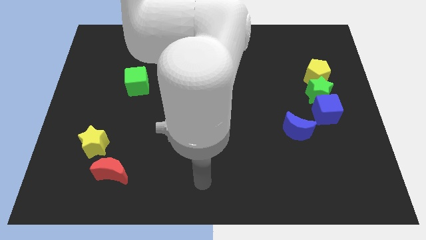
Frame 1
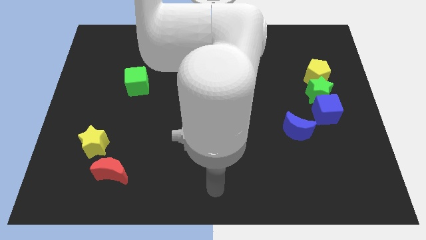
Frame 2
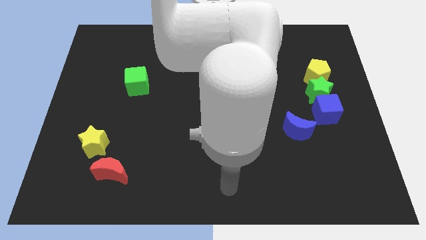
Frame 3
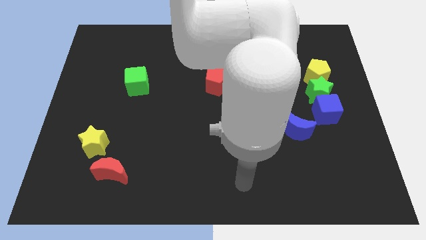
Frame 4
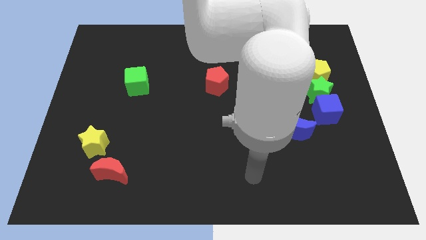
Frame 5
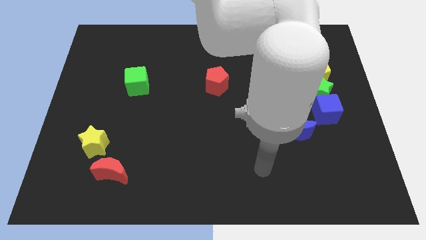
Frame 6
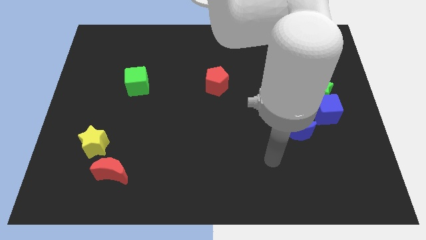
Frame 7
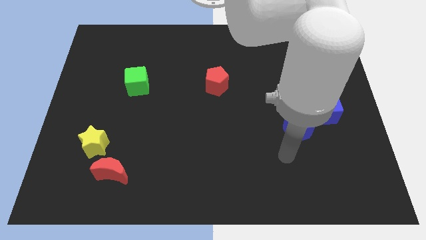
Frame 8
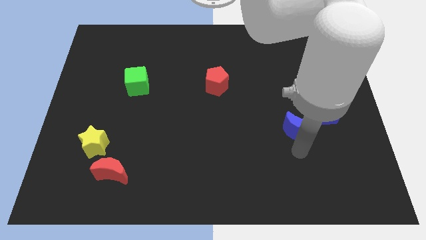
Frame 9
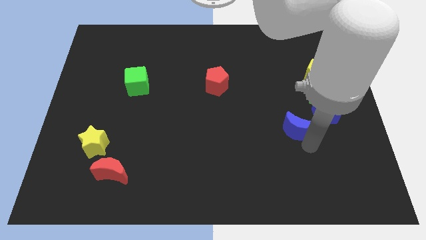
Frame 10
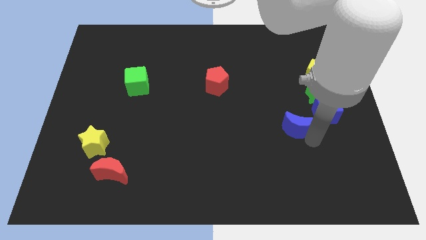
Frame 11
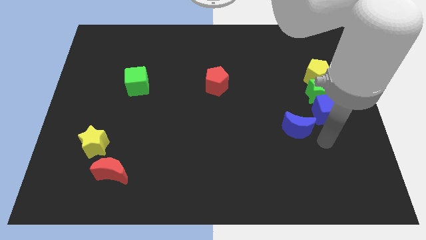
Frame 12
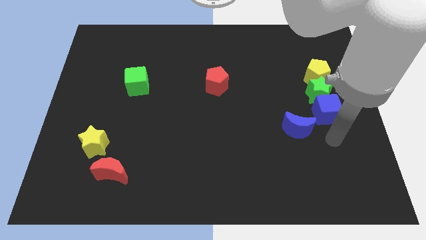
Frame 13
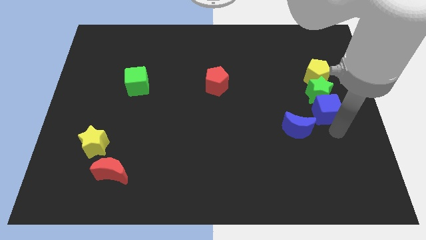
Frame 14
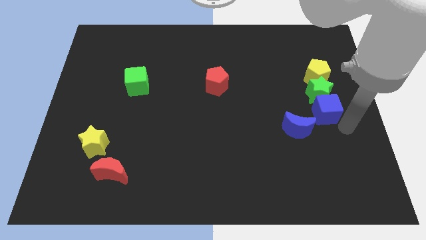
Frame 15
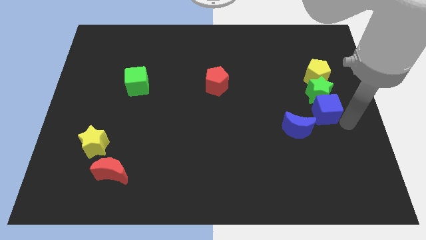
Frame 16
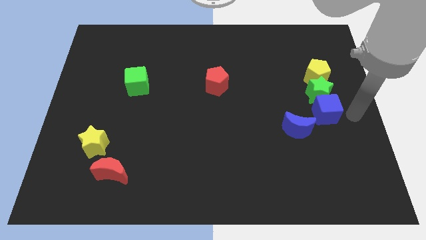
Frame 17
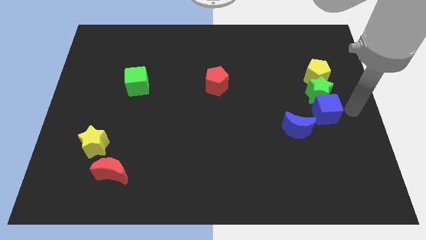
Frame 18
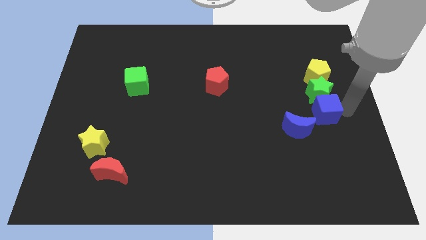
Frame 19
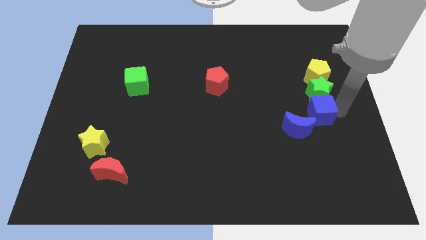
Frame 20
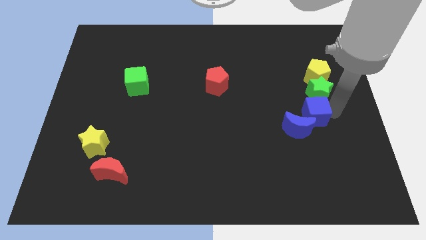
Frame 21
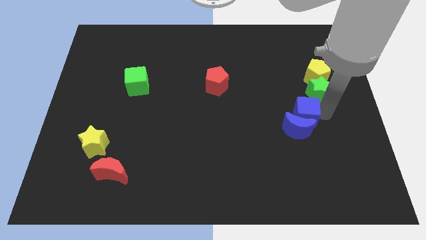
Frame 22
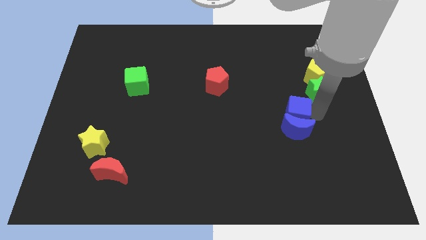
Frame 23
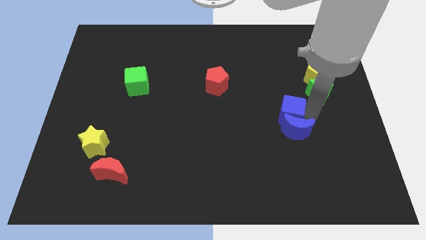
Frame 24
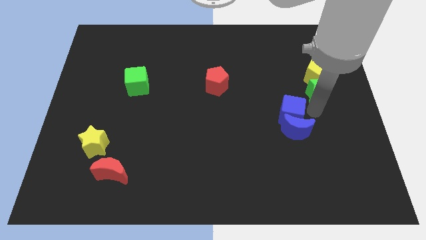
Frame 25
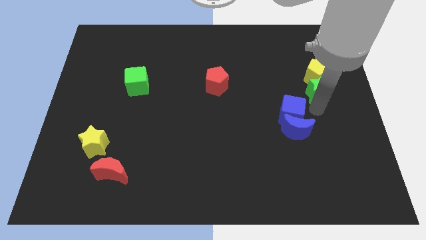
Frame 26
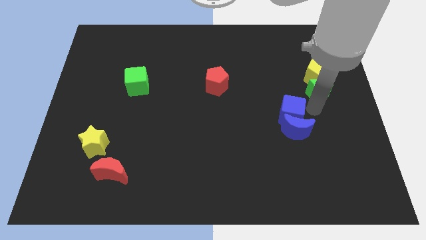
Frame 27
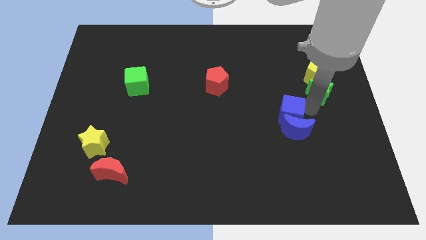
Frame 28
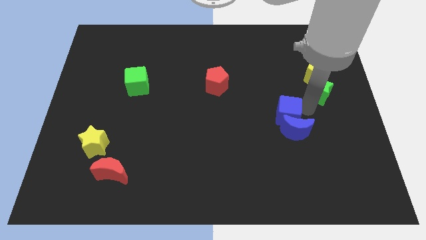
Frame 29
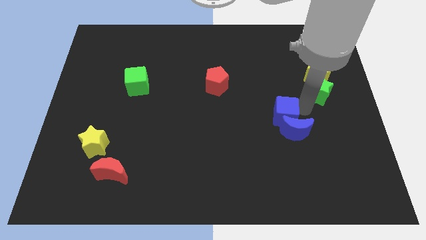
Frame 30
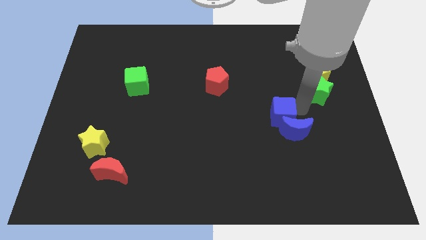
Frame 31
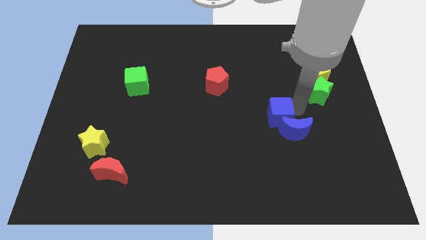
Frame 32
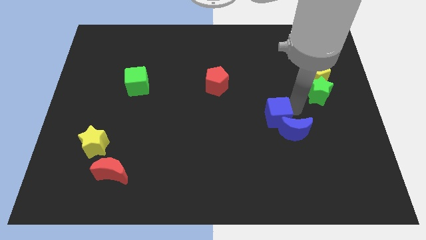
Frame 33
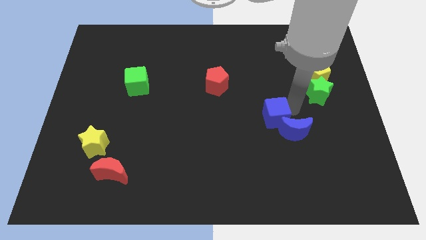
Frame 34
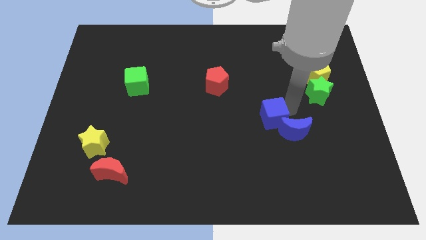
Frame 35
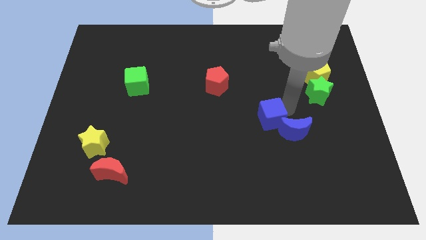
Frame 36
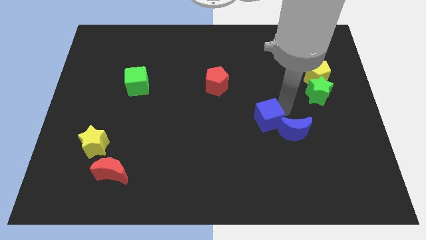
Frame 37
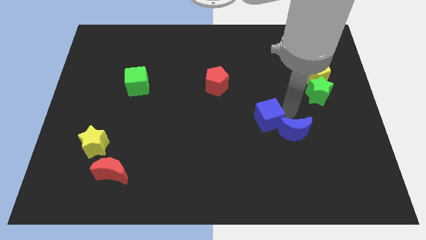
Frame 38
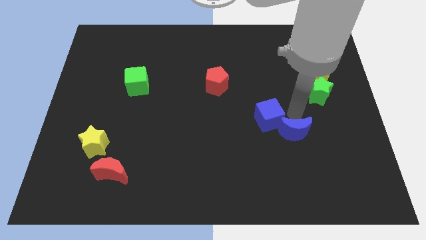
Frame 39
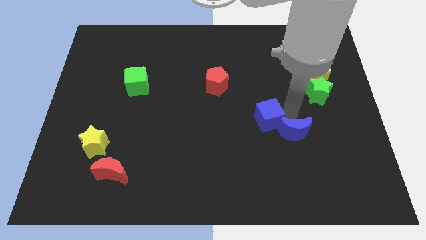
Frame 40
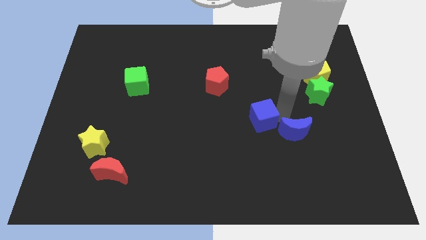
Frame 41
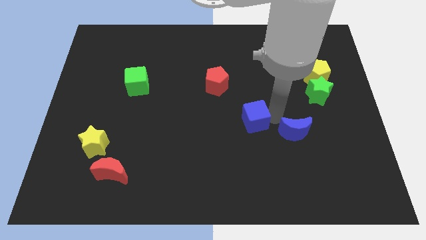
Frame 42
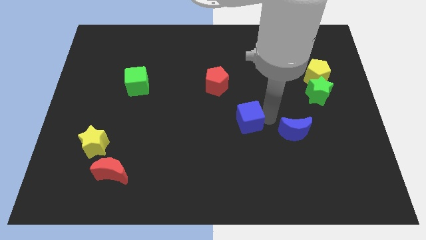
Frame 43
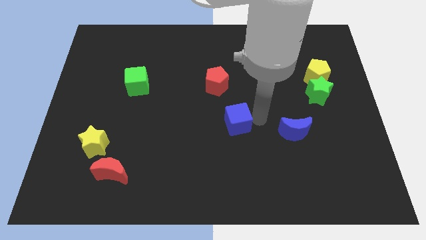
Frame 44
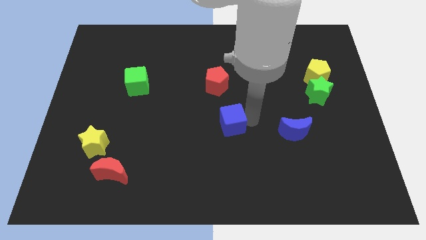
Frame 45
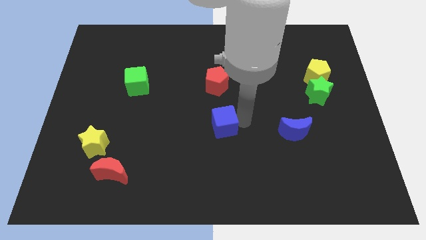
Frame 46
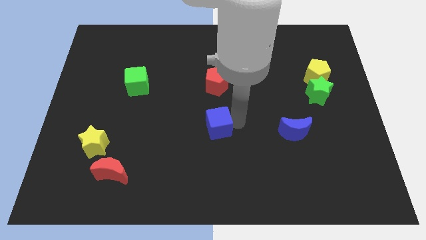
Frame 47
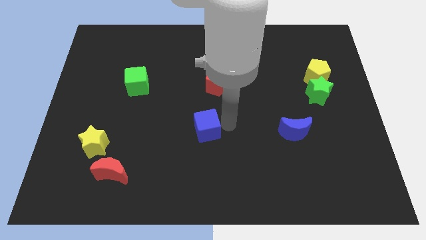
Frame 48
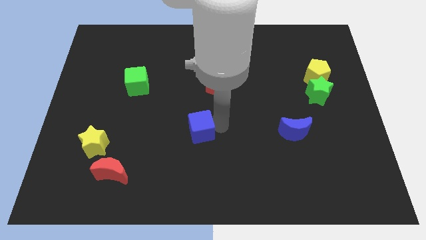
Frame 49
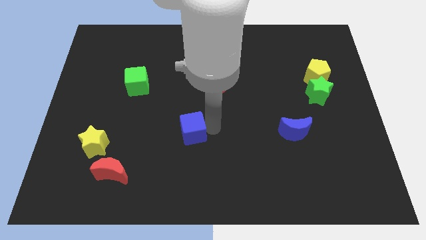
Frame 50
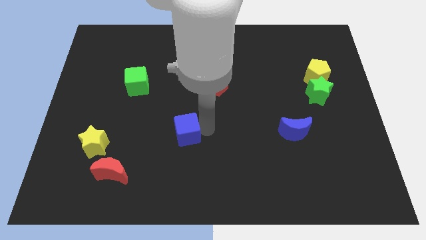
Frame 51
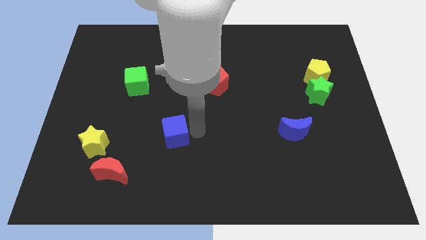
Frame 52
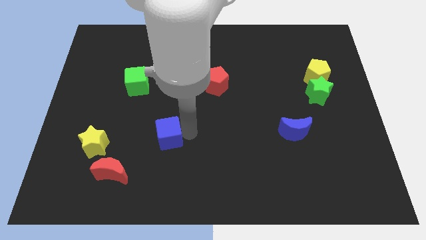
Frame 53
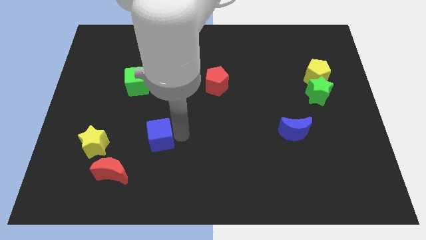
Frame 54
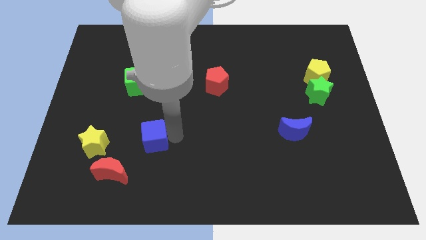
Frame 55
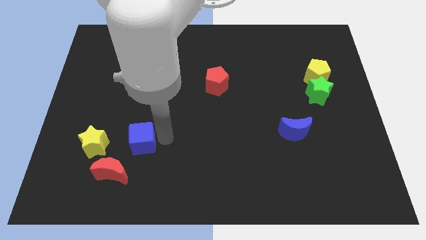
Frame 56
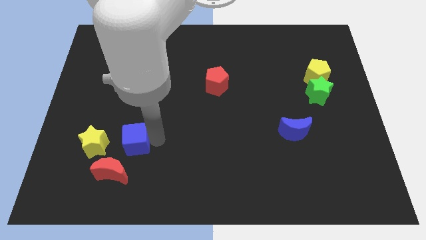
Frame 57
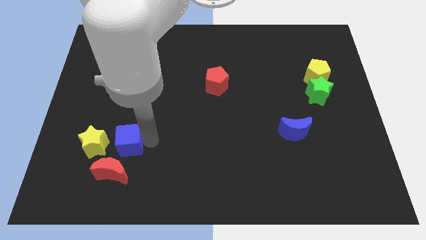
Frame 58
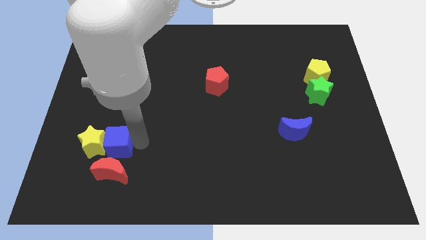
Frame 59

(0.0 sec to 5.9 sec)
put the blue cube next to the yellow star

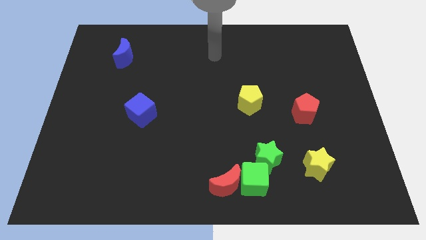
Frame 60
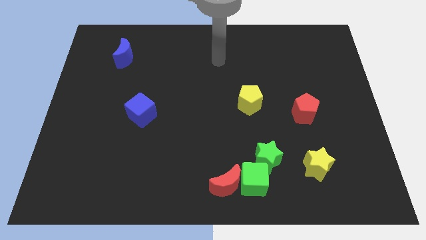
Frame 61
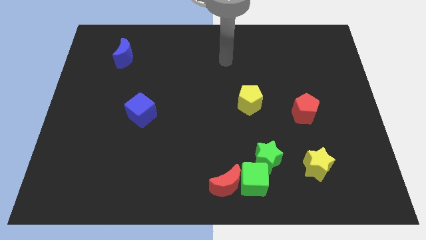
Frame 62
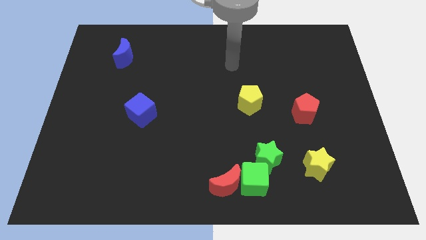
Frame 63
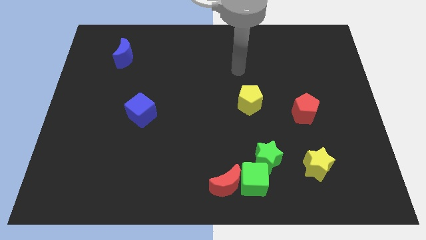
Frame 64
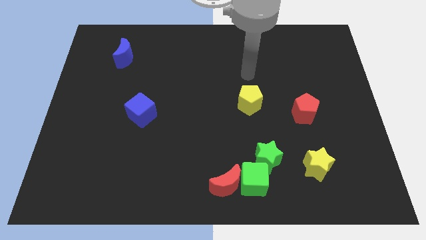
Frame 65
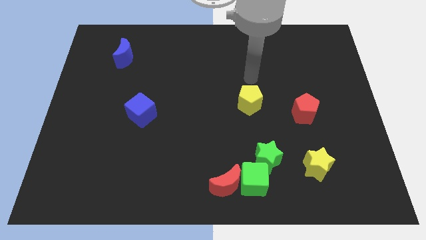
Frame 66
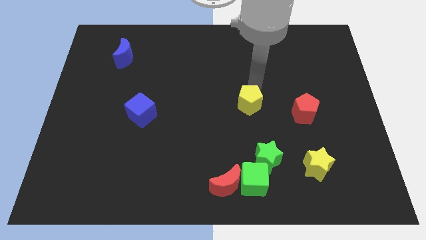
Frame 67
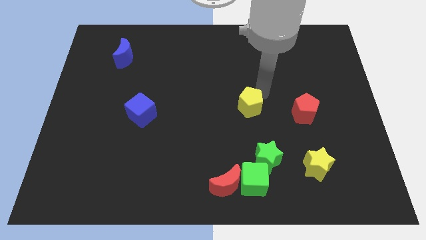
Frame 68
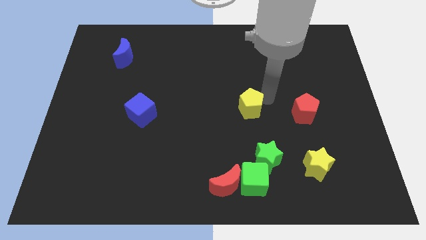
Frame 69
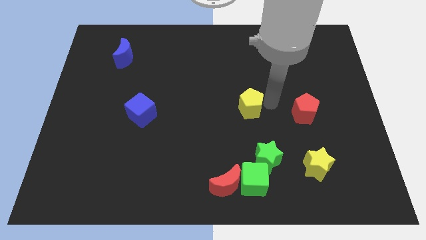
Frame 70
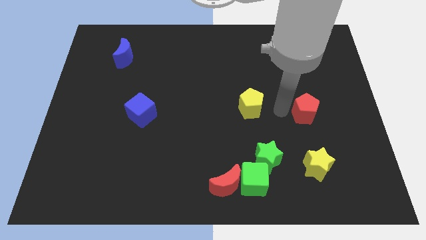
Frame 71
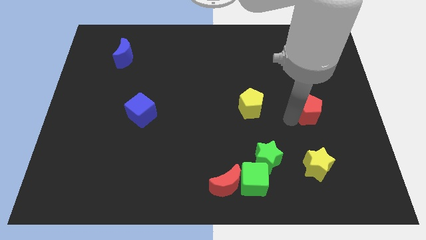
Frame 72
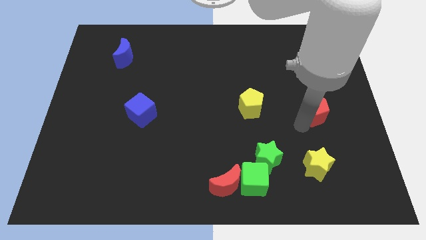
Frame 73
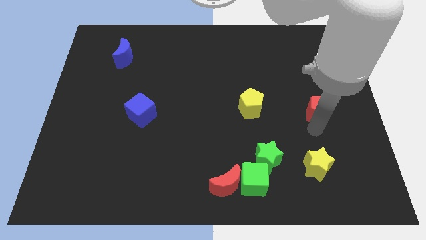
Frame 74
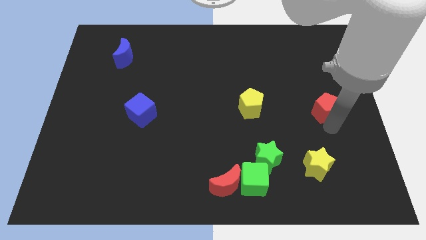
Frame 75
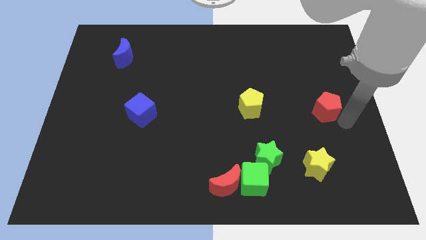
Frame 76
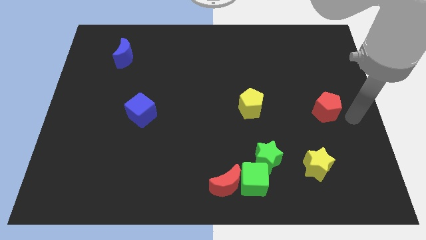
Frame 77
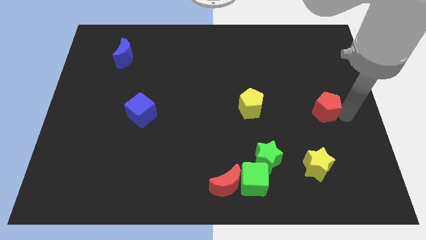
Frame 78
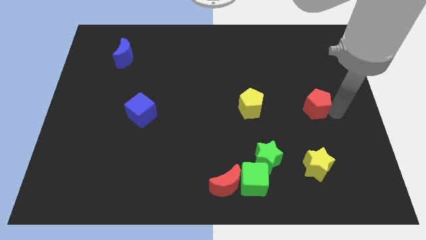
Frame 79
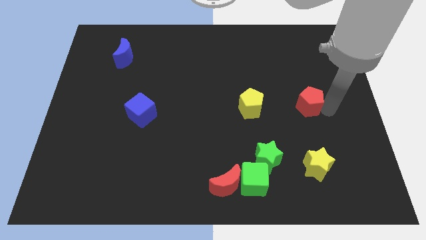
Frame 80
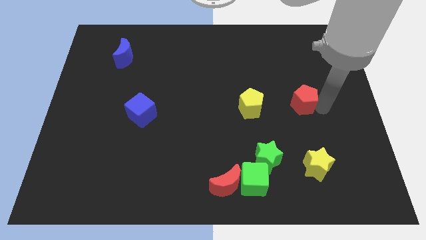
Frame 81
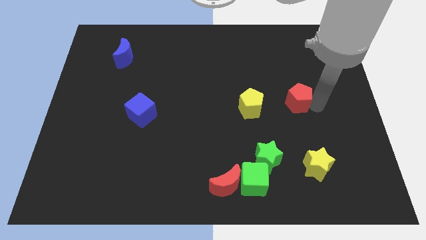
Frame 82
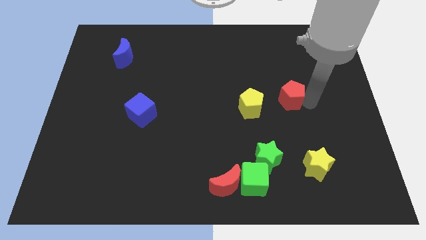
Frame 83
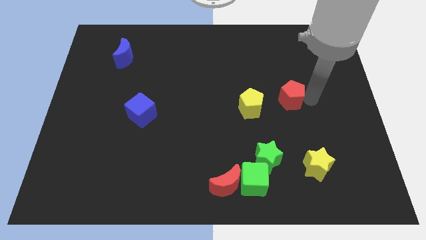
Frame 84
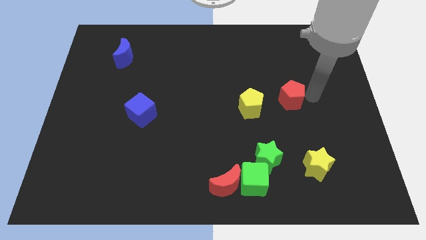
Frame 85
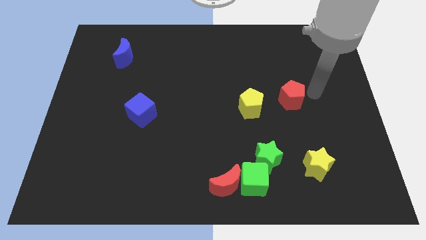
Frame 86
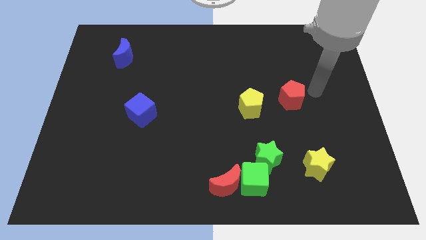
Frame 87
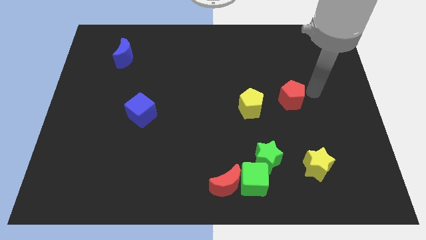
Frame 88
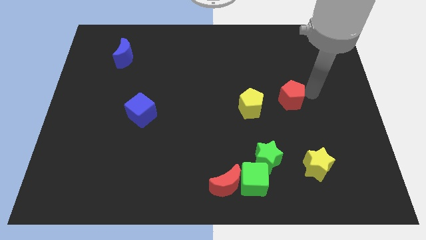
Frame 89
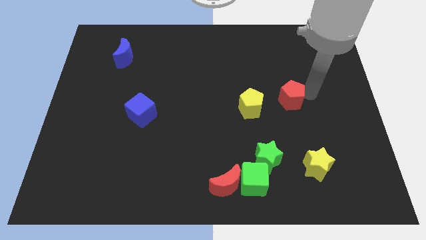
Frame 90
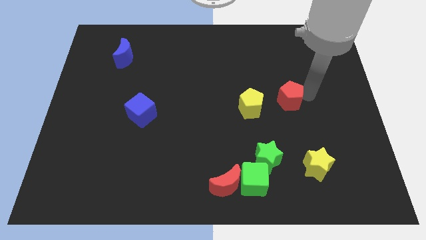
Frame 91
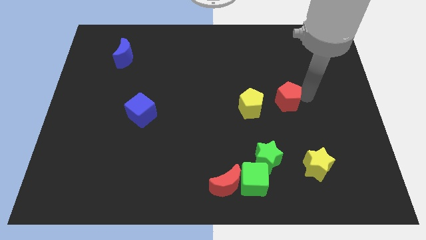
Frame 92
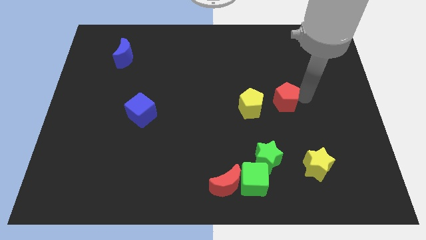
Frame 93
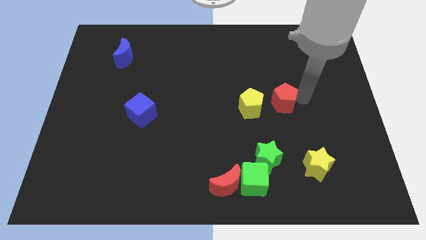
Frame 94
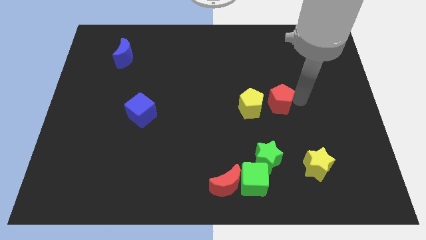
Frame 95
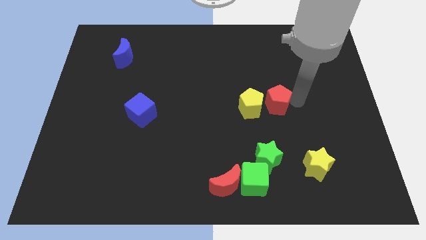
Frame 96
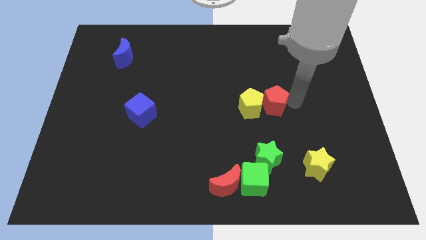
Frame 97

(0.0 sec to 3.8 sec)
put the red pentagon next to the yellow pentagon
